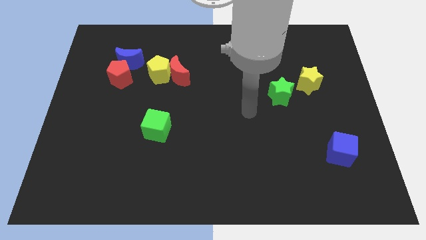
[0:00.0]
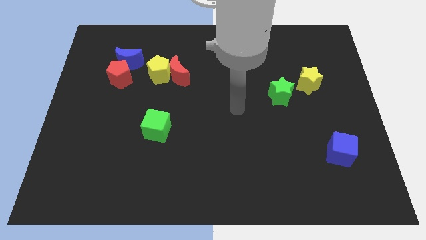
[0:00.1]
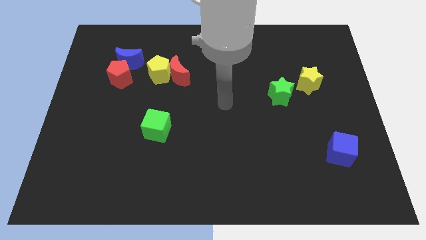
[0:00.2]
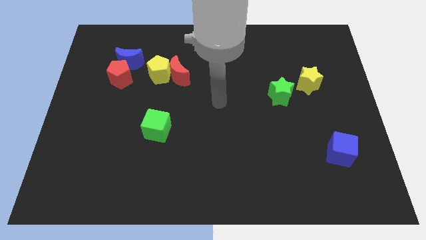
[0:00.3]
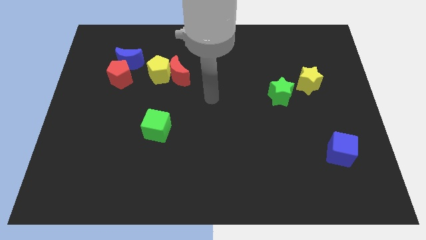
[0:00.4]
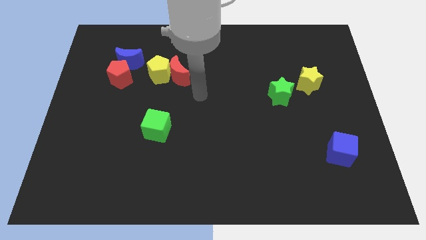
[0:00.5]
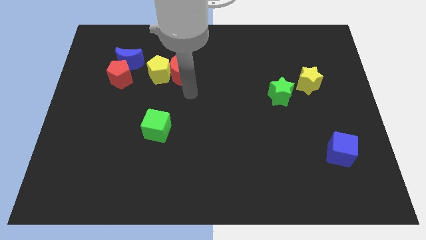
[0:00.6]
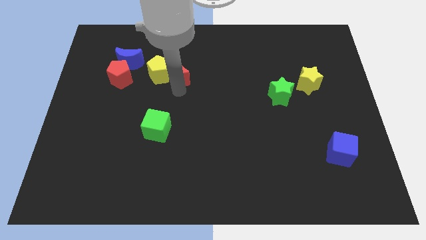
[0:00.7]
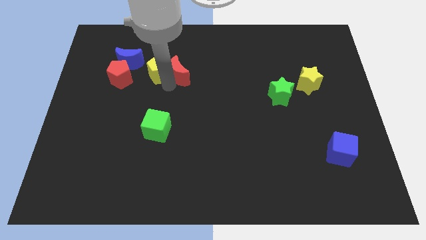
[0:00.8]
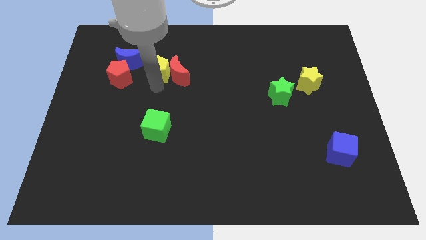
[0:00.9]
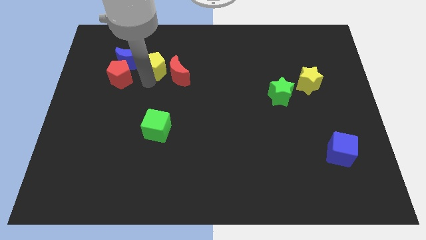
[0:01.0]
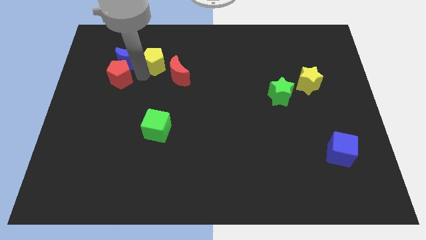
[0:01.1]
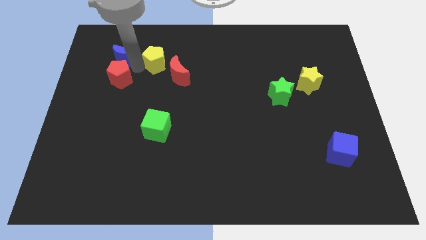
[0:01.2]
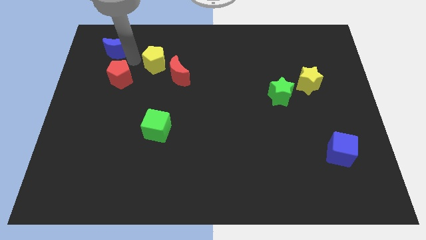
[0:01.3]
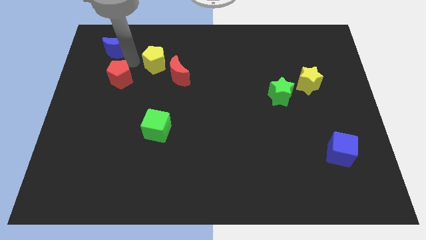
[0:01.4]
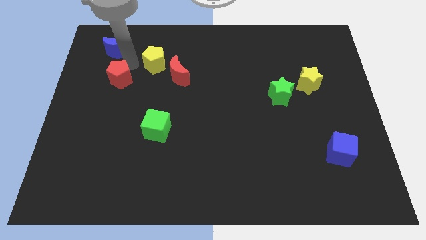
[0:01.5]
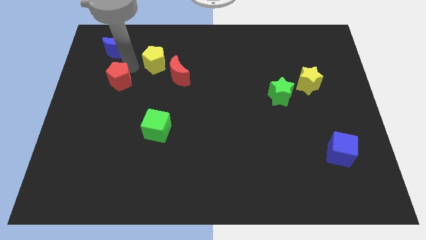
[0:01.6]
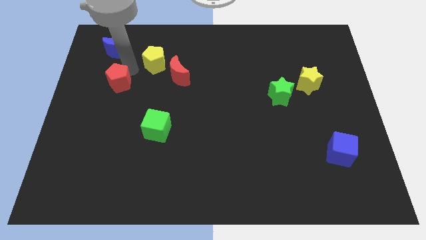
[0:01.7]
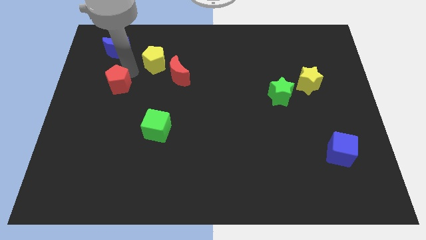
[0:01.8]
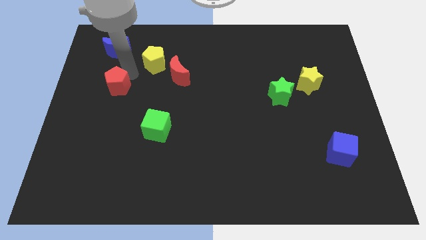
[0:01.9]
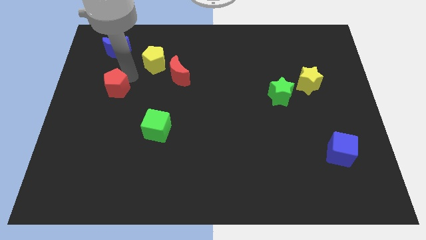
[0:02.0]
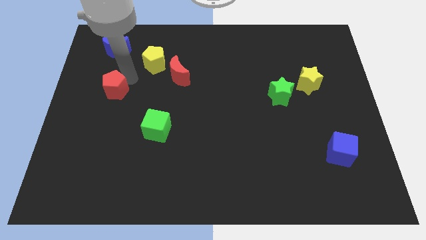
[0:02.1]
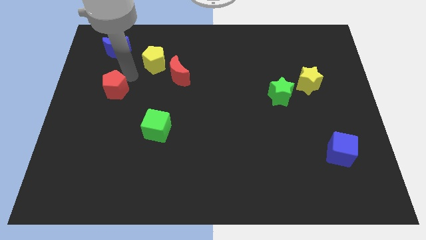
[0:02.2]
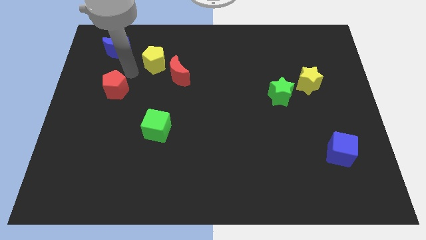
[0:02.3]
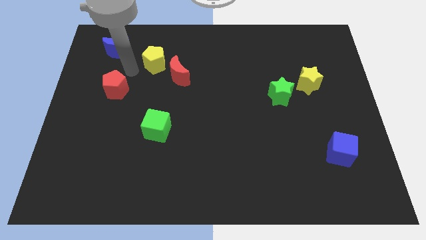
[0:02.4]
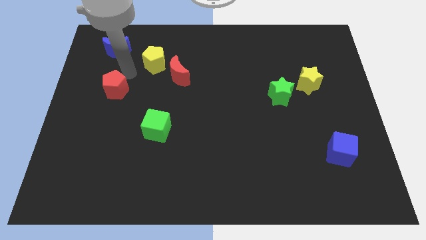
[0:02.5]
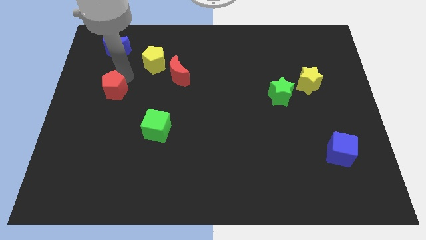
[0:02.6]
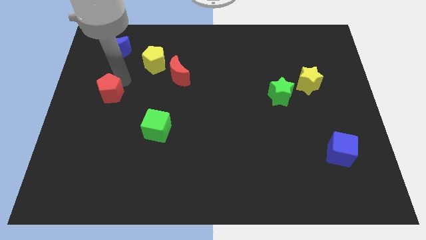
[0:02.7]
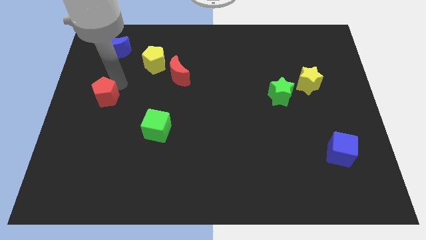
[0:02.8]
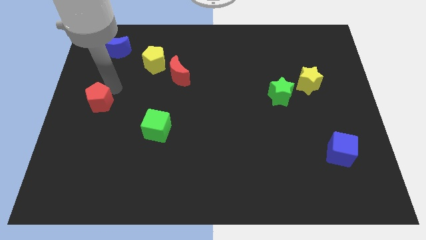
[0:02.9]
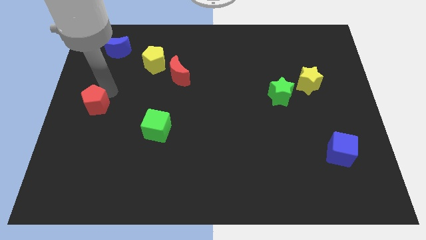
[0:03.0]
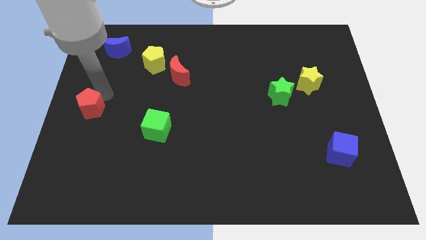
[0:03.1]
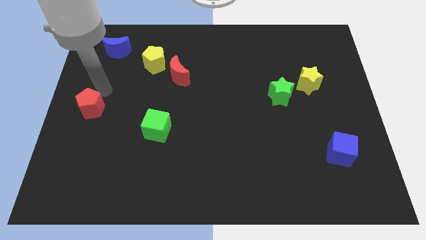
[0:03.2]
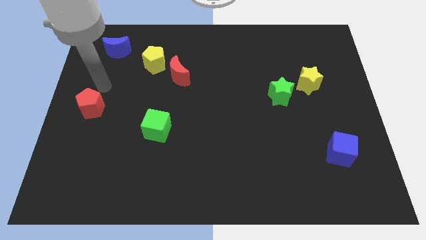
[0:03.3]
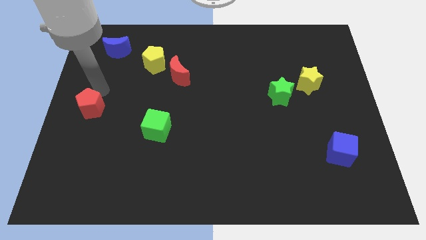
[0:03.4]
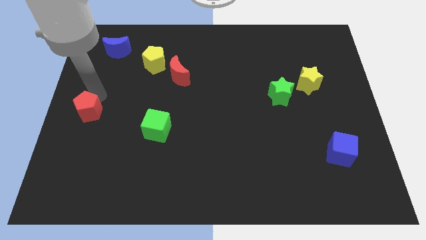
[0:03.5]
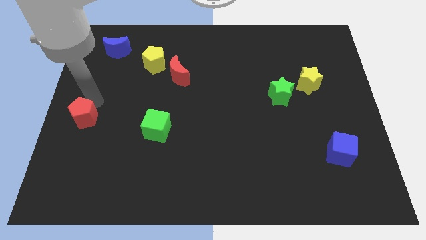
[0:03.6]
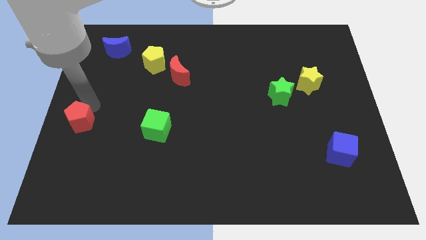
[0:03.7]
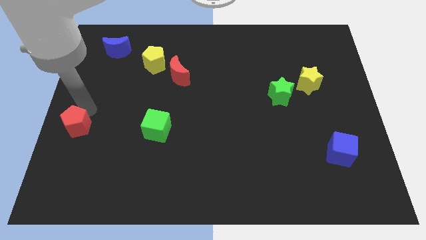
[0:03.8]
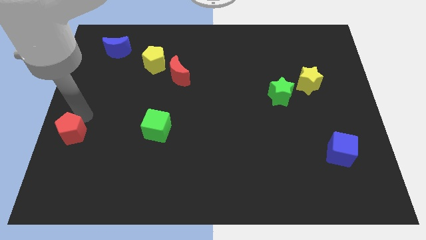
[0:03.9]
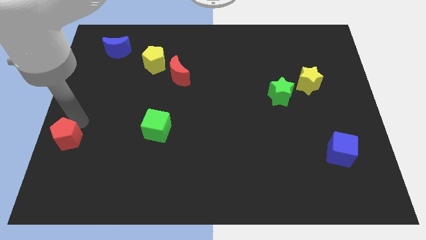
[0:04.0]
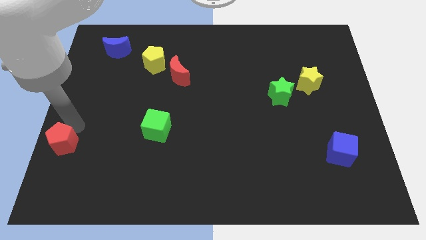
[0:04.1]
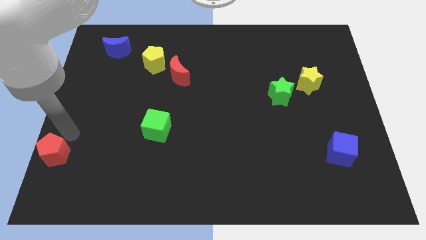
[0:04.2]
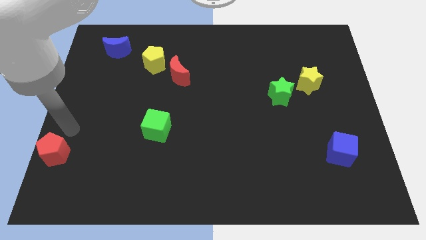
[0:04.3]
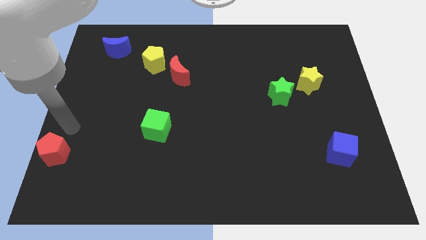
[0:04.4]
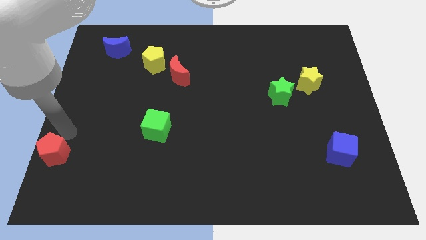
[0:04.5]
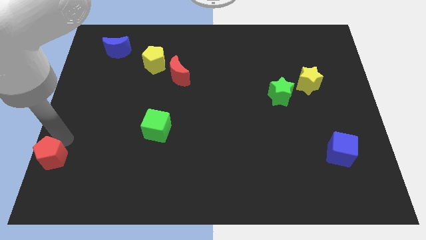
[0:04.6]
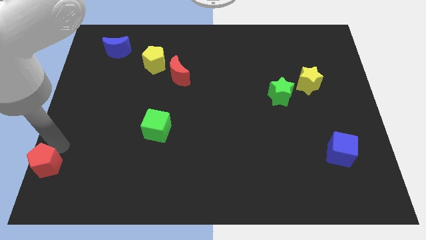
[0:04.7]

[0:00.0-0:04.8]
slide the red pentagon to the bottom left

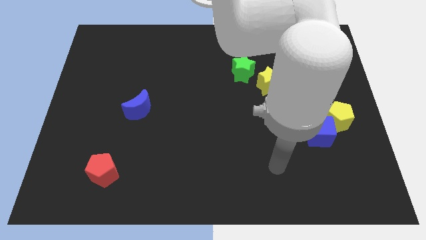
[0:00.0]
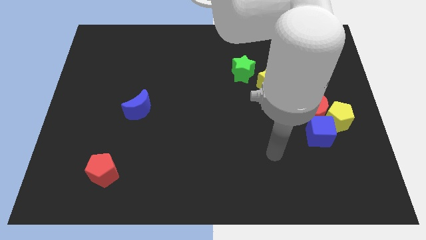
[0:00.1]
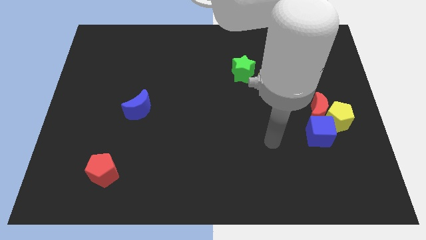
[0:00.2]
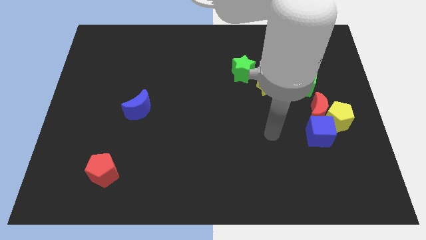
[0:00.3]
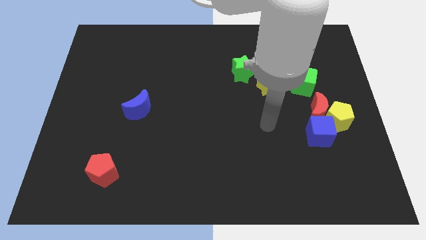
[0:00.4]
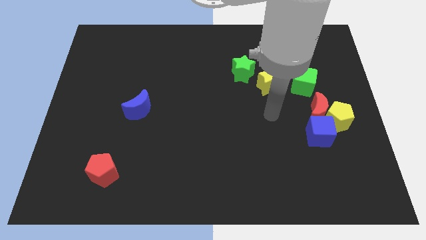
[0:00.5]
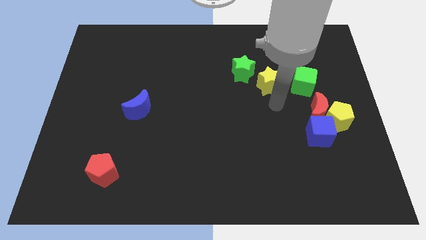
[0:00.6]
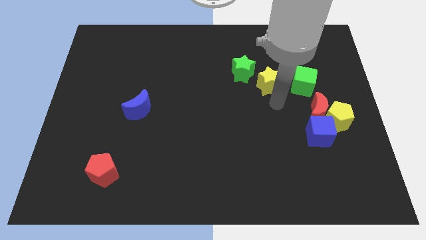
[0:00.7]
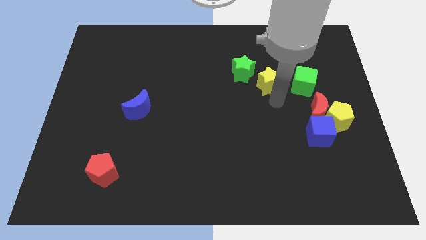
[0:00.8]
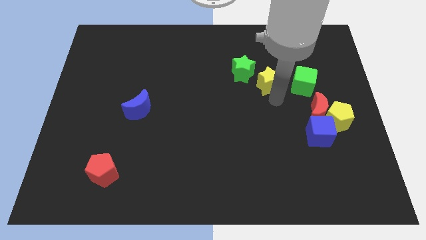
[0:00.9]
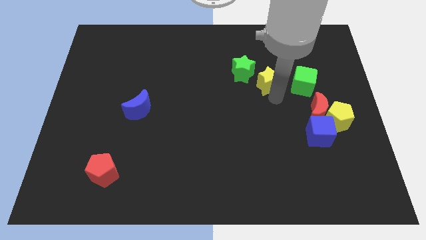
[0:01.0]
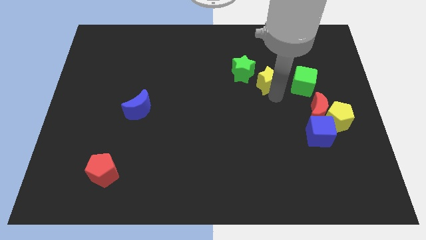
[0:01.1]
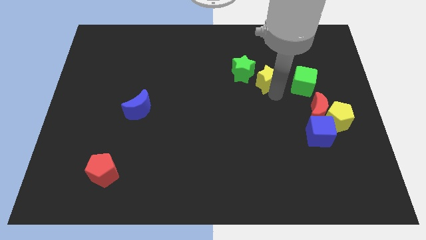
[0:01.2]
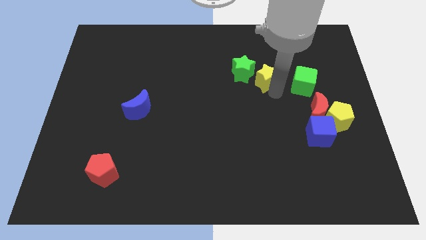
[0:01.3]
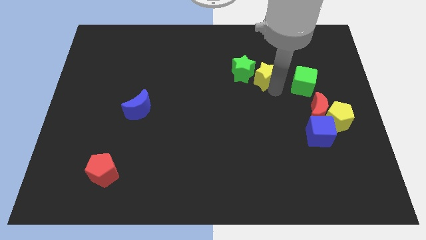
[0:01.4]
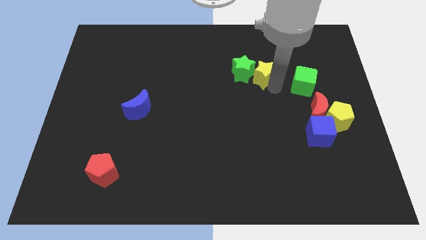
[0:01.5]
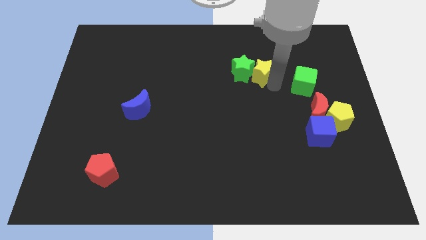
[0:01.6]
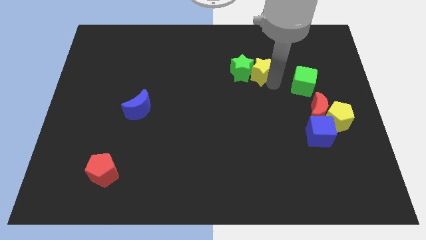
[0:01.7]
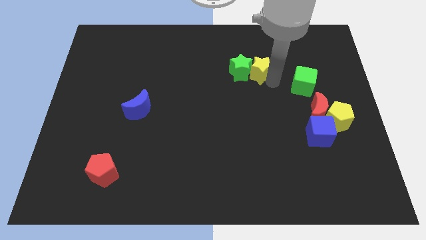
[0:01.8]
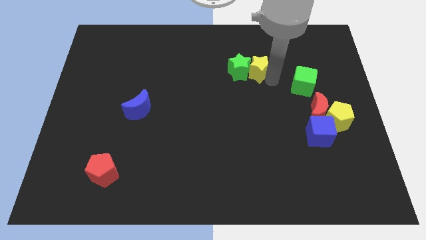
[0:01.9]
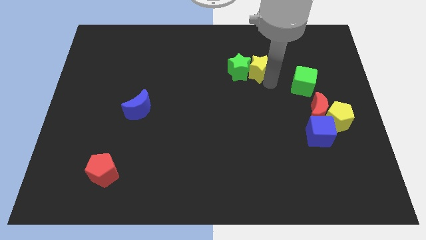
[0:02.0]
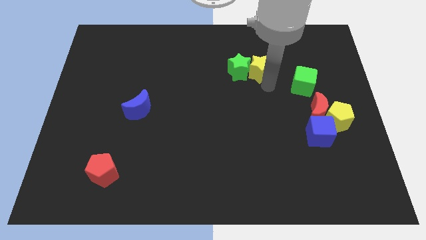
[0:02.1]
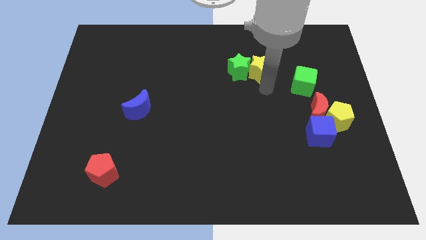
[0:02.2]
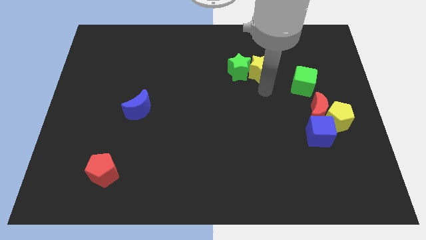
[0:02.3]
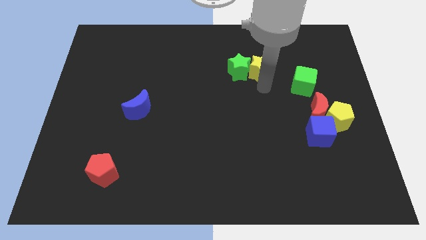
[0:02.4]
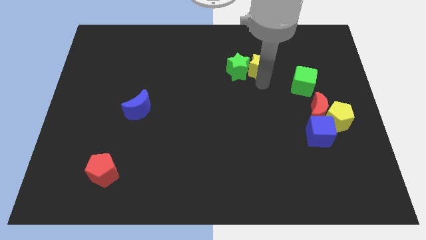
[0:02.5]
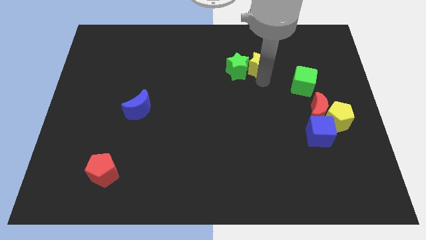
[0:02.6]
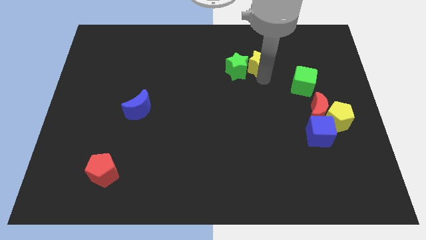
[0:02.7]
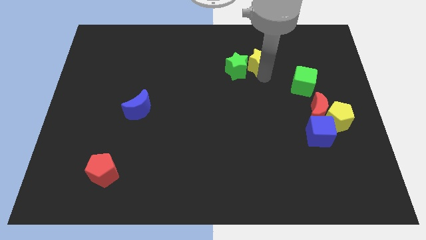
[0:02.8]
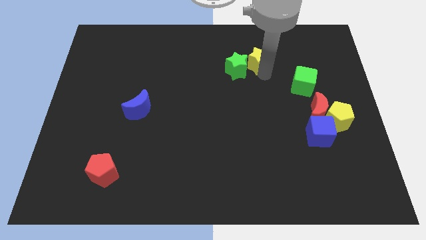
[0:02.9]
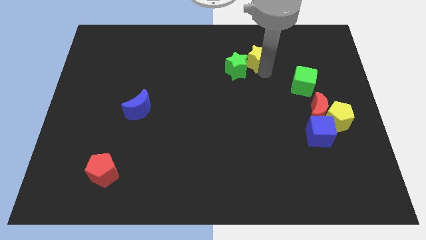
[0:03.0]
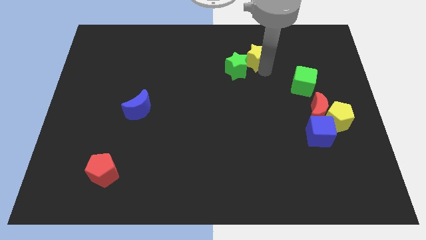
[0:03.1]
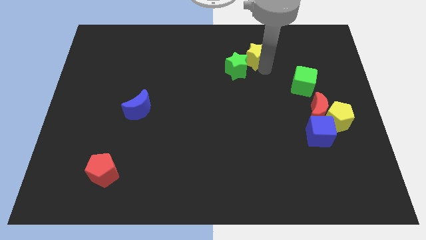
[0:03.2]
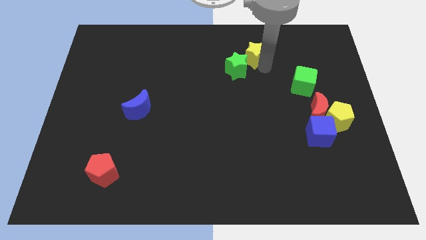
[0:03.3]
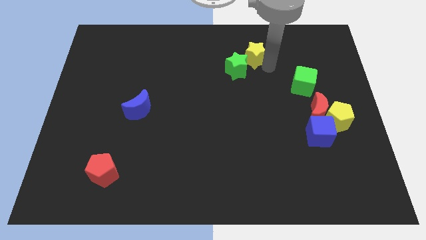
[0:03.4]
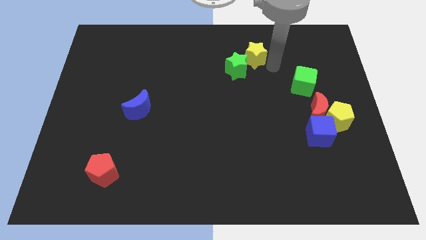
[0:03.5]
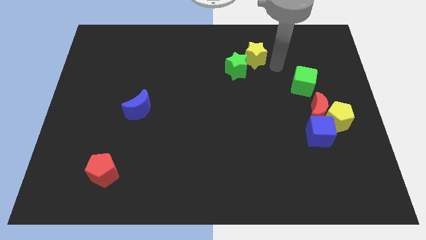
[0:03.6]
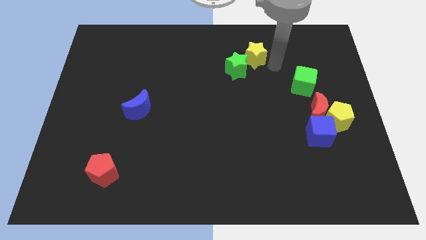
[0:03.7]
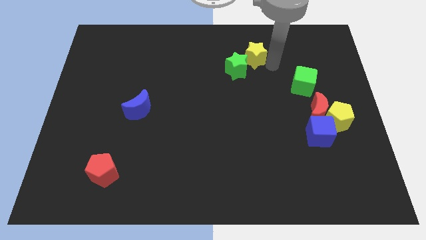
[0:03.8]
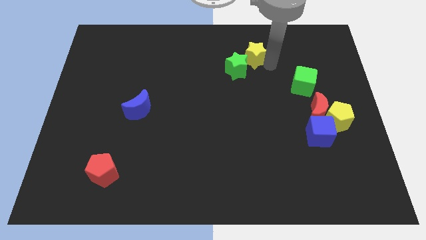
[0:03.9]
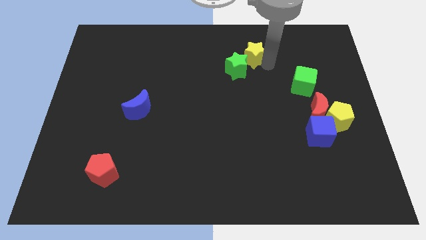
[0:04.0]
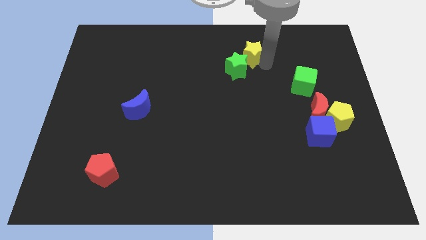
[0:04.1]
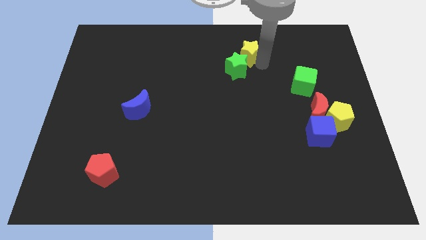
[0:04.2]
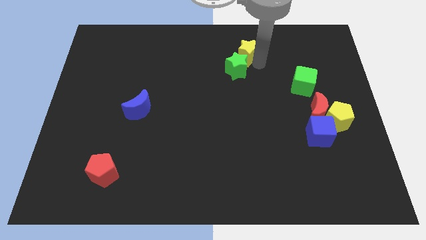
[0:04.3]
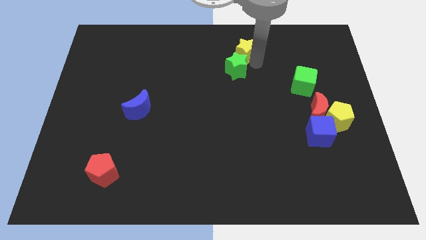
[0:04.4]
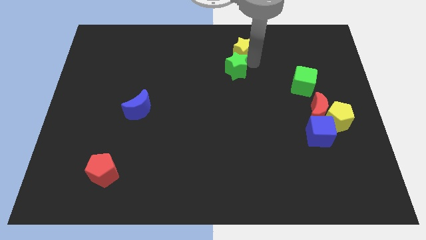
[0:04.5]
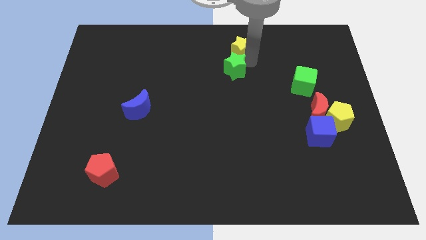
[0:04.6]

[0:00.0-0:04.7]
push the yellow star to the top side
